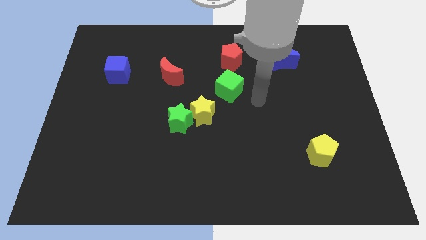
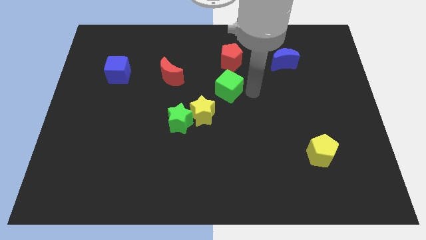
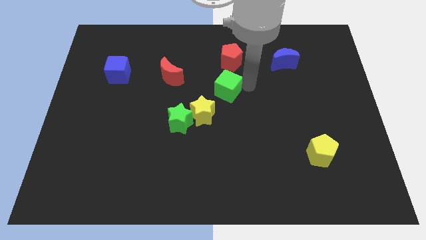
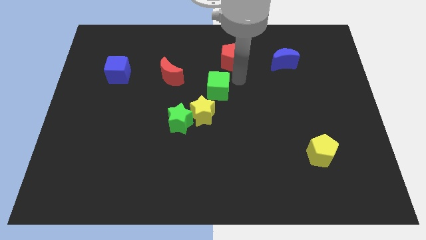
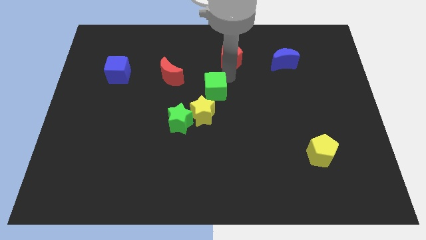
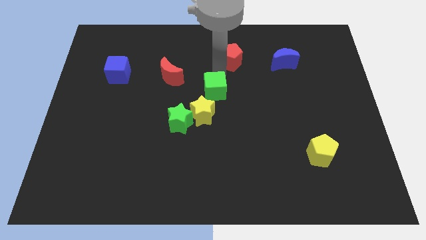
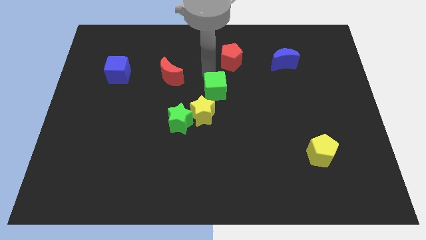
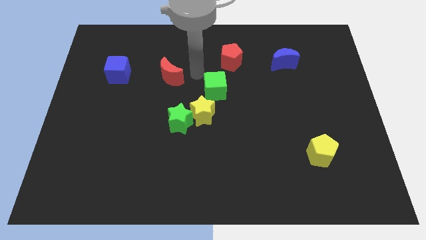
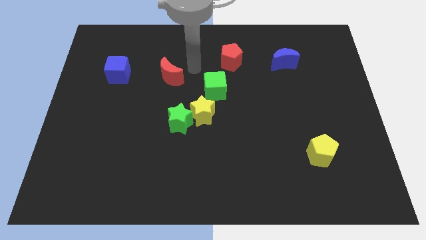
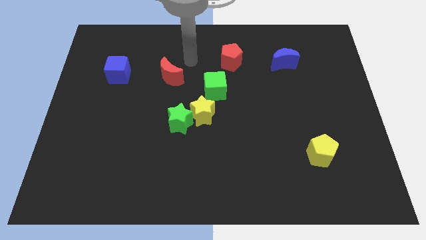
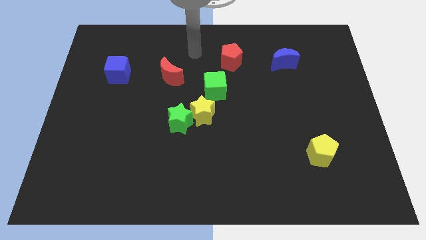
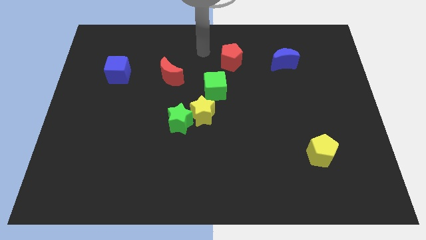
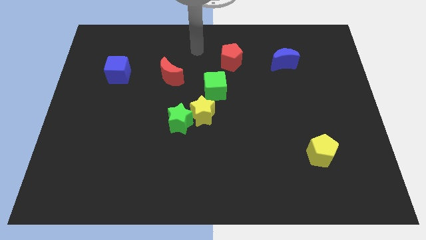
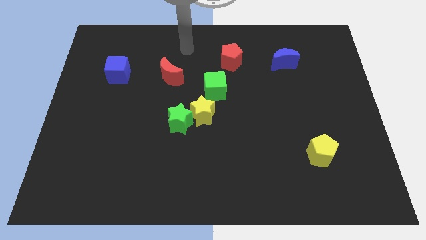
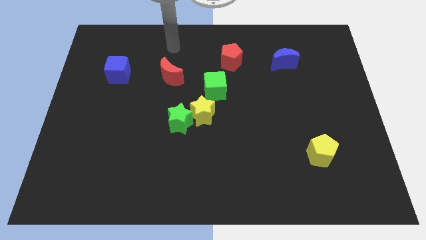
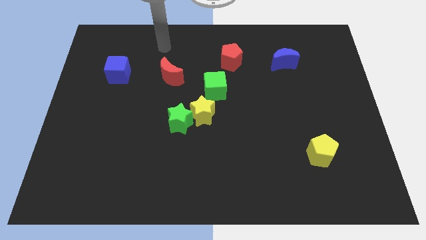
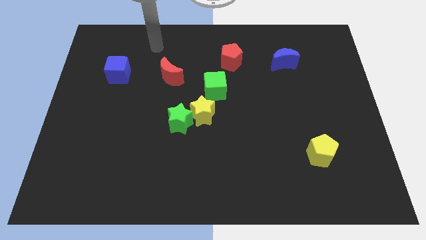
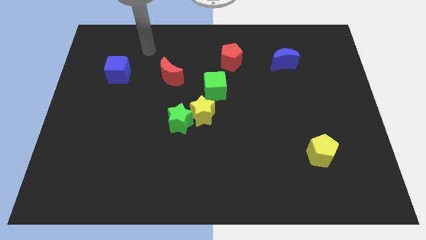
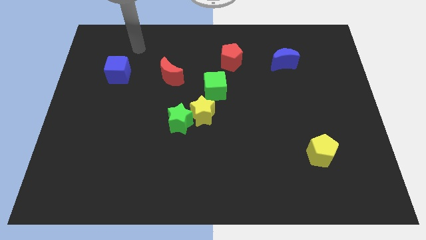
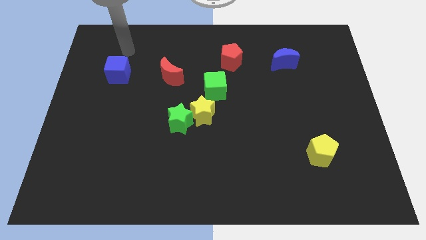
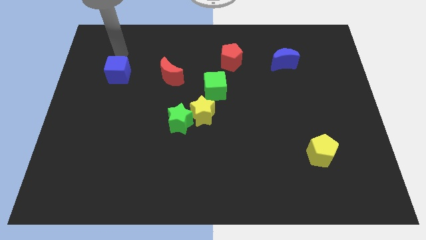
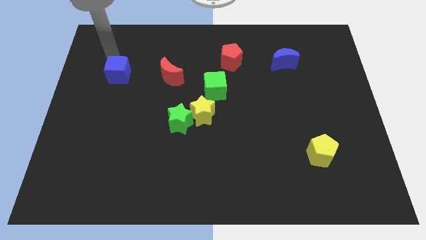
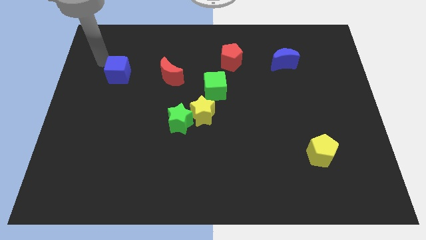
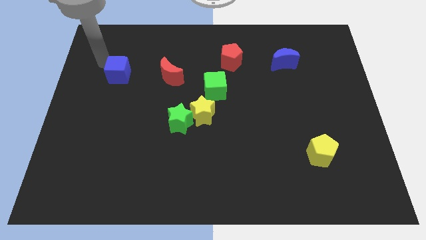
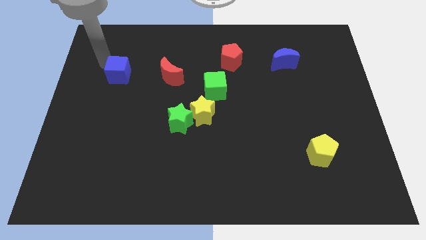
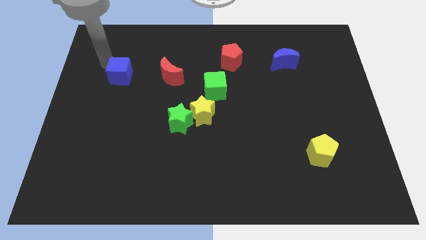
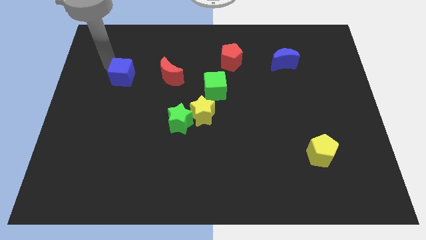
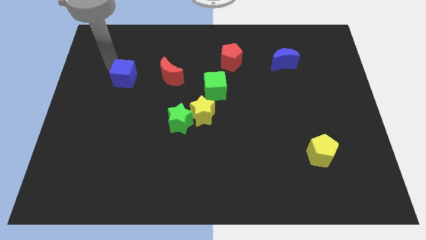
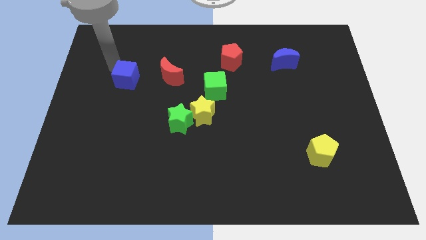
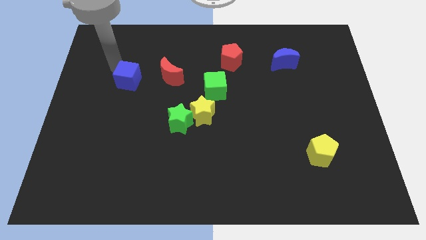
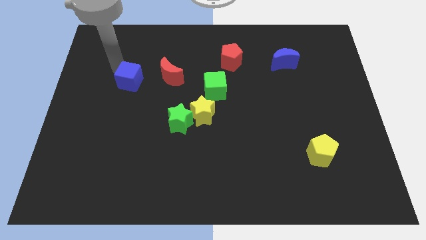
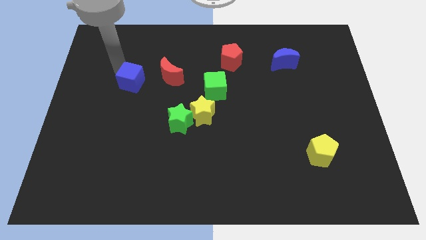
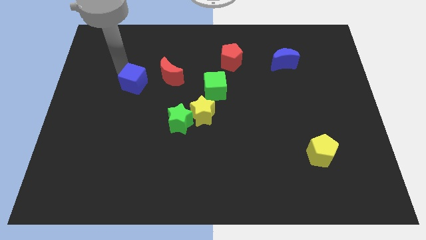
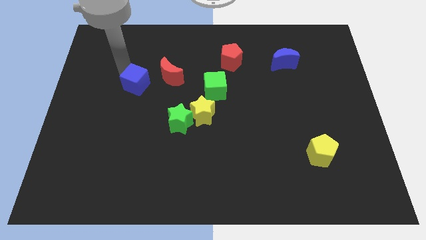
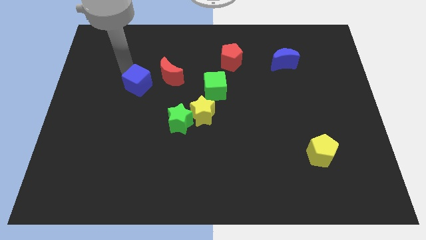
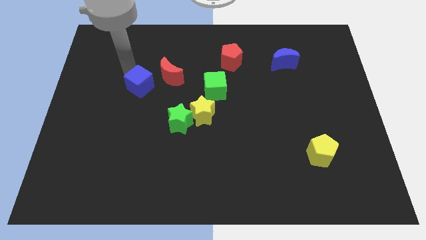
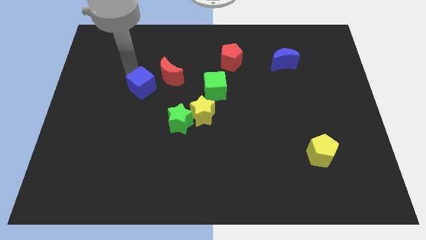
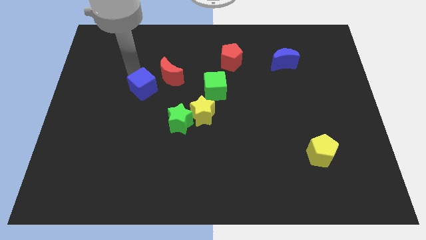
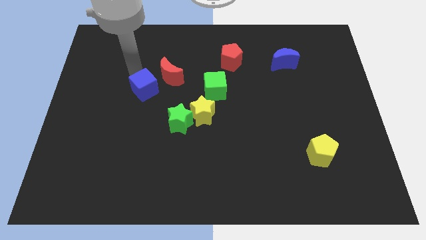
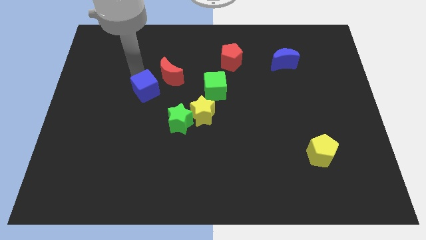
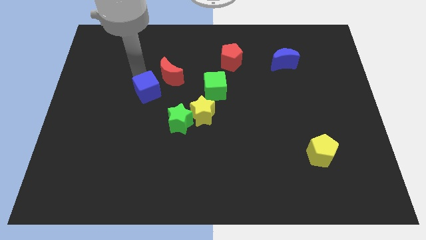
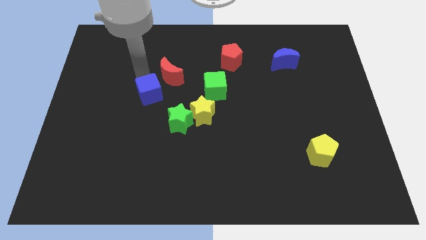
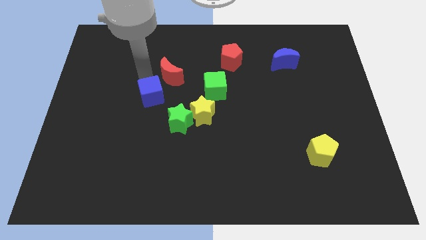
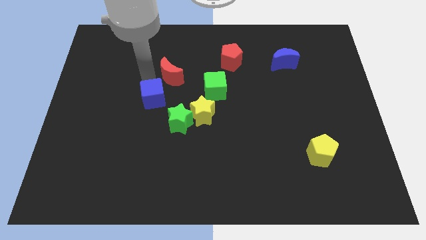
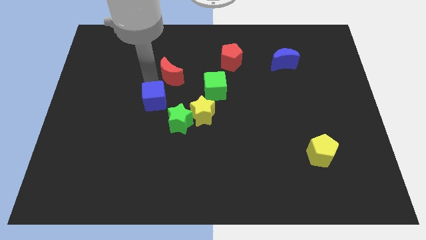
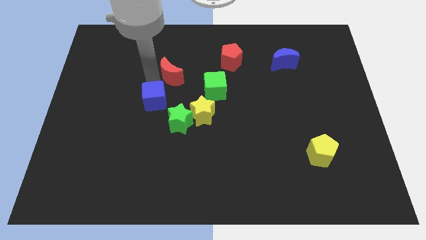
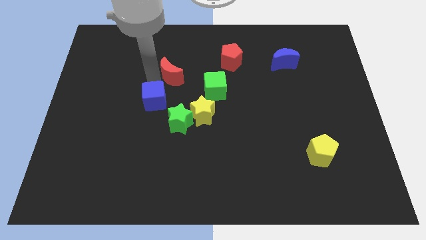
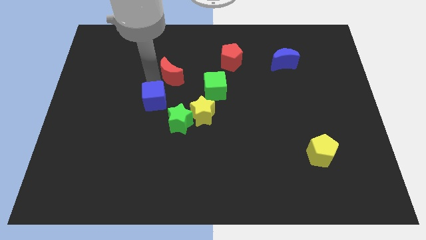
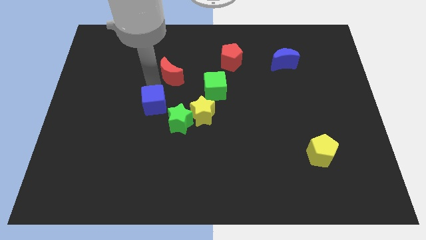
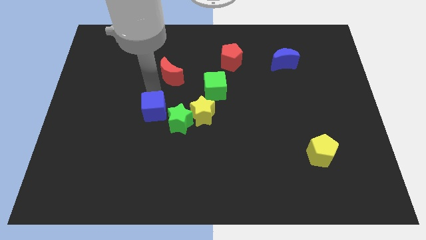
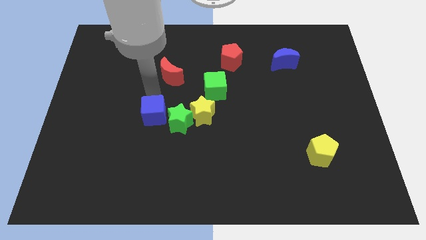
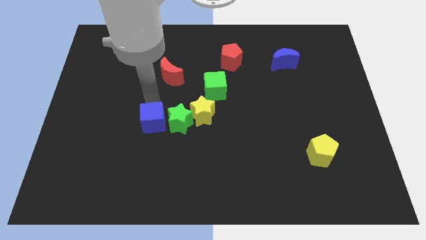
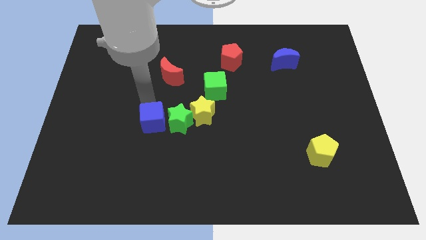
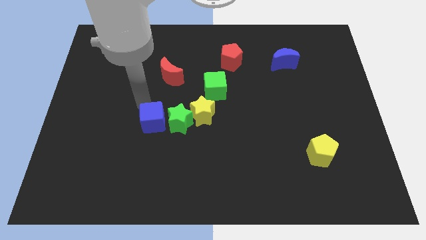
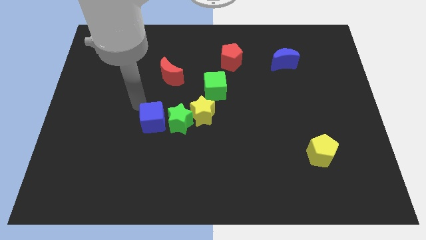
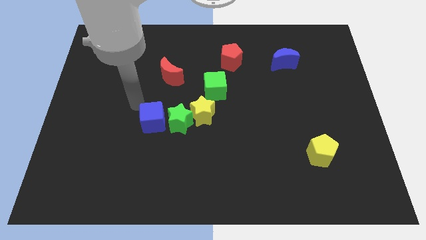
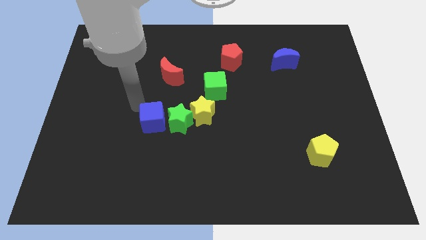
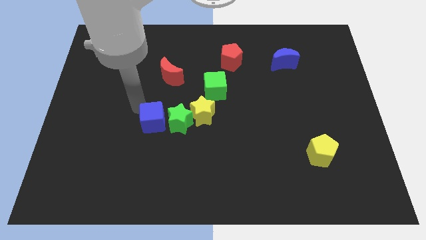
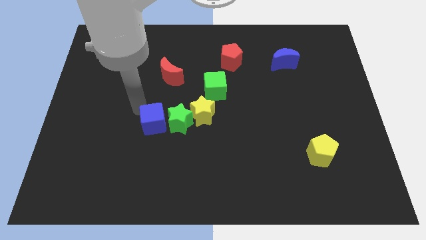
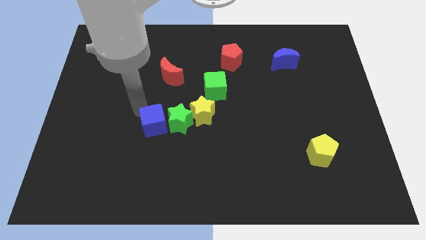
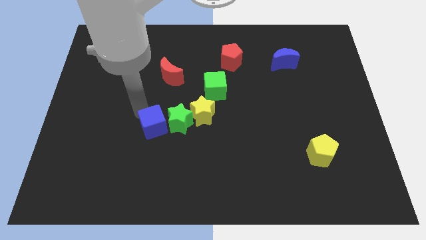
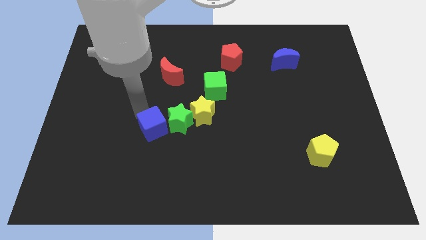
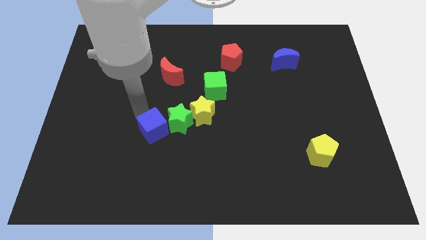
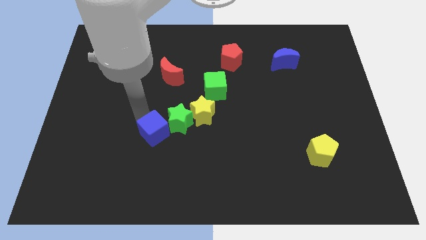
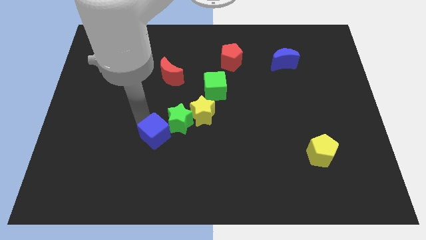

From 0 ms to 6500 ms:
push the blue cube downwards and to the right diagonally

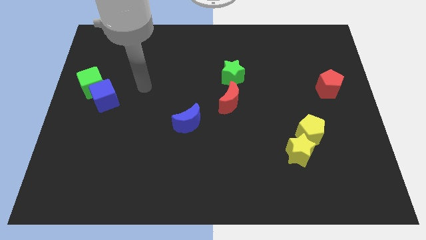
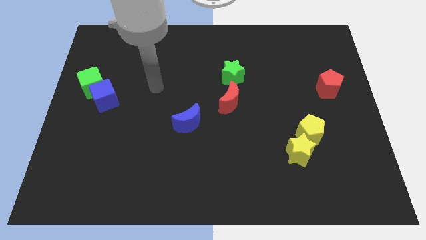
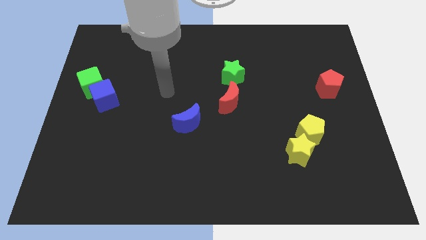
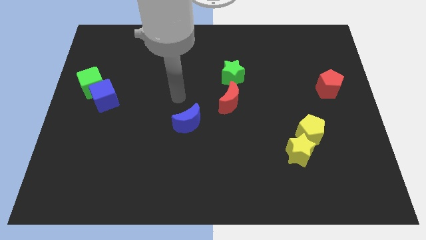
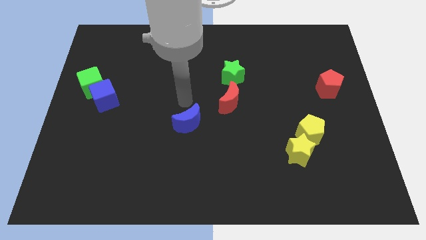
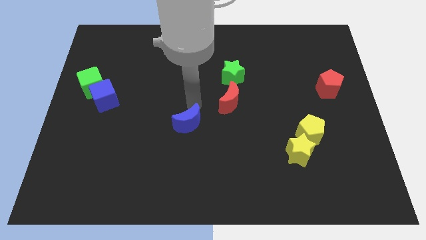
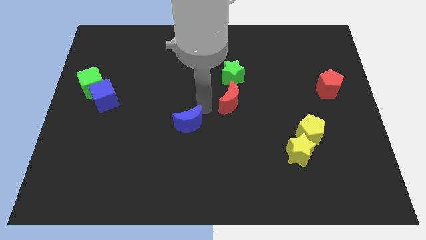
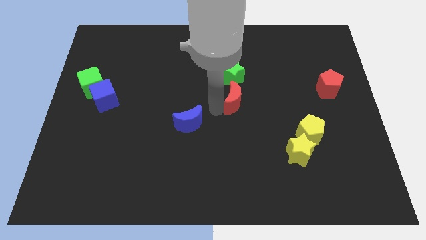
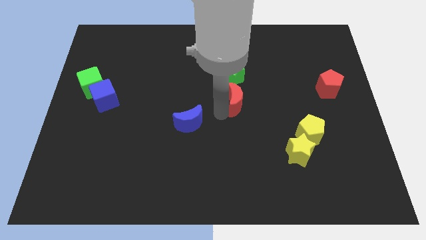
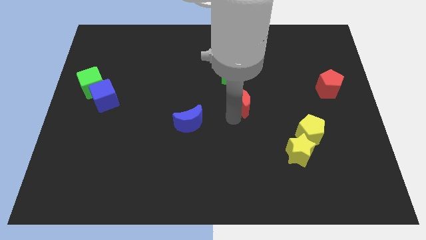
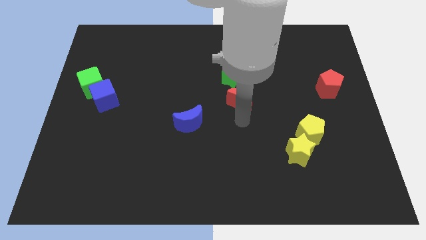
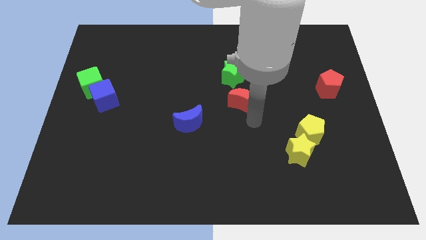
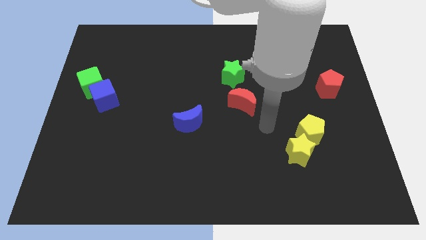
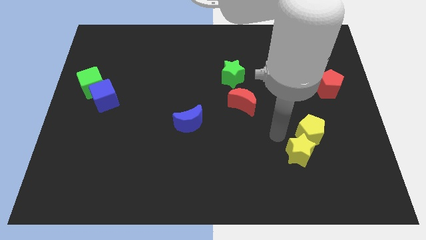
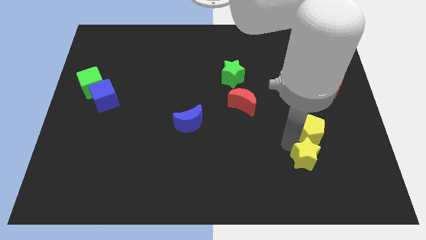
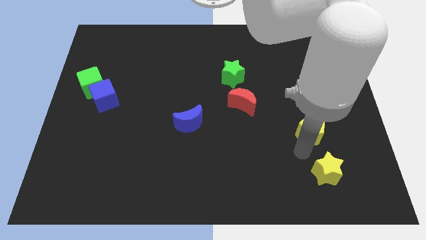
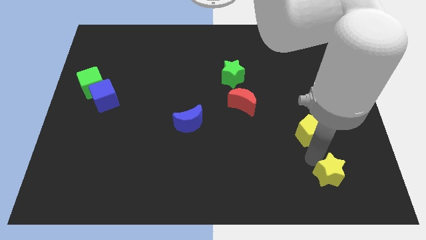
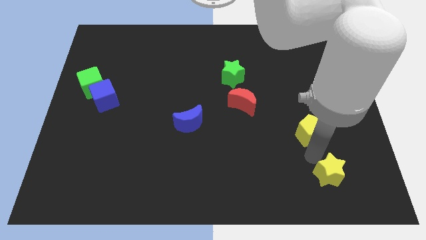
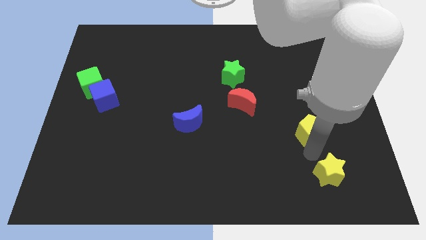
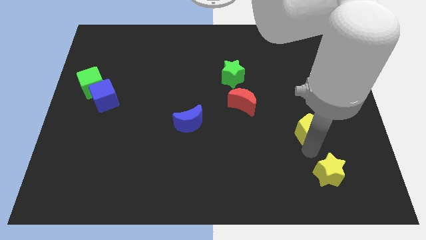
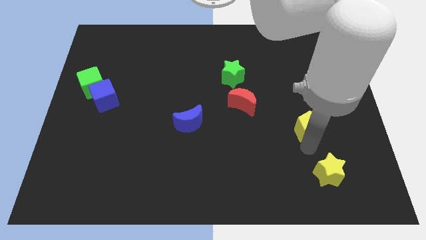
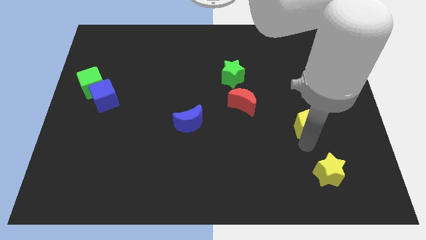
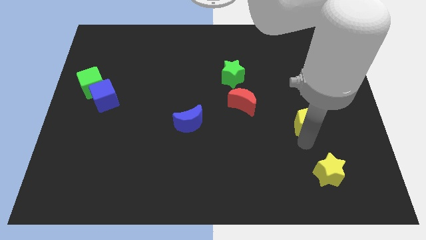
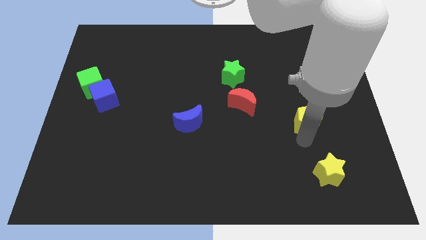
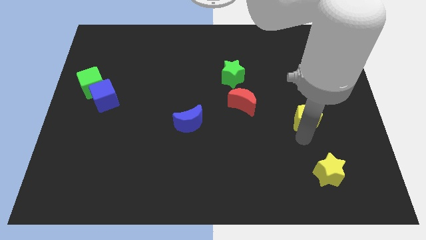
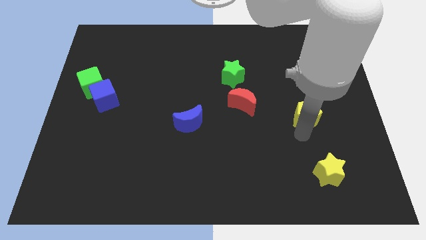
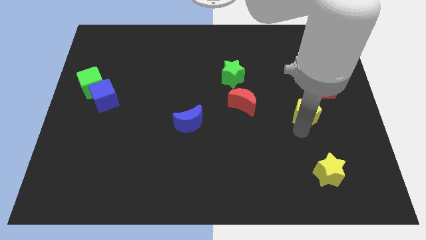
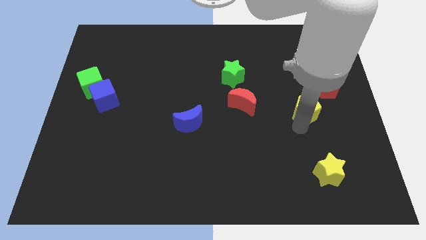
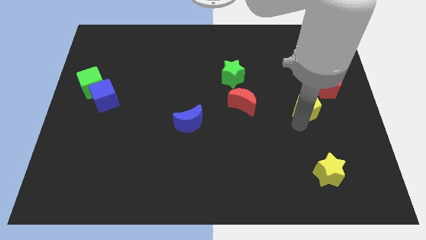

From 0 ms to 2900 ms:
slide the yellow pentagon slightly upwards
